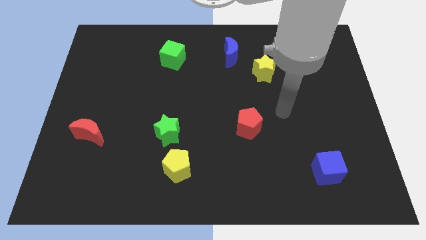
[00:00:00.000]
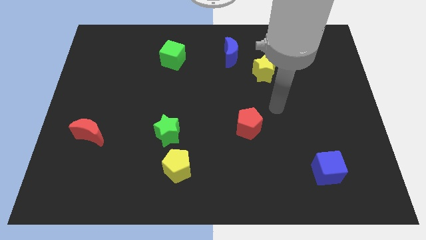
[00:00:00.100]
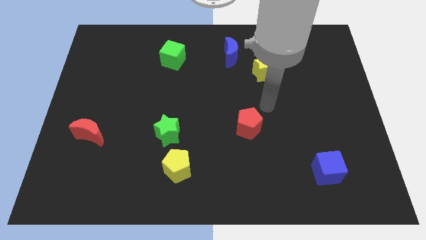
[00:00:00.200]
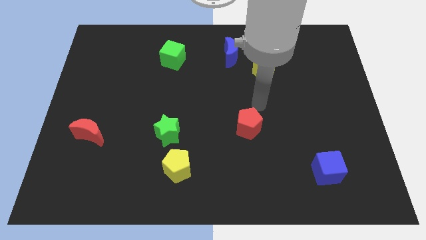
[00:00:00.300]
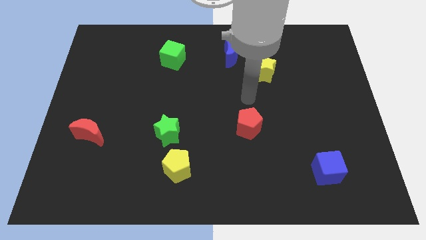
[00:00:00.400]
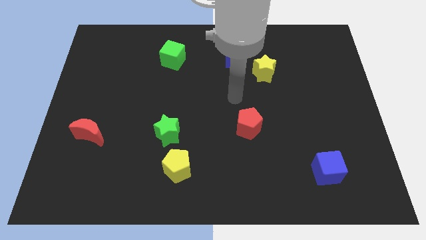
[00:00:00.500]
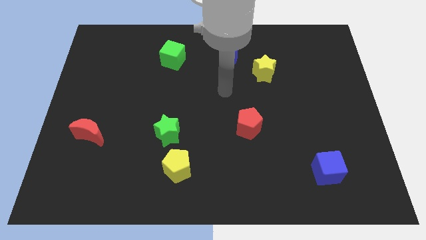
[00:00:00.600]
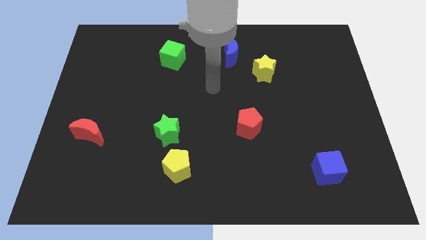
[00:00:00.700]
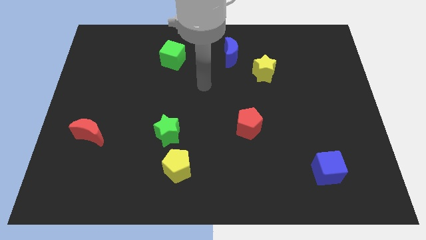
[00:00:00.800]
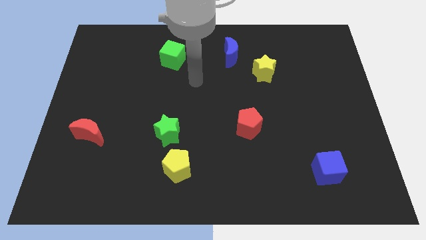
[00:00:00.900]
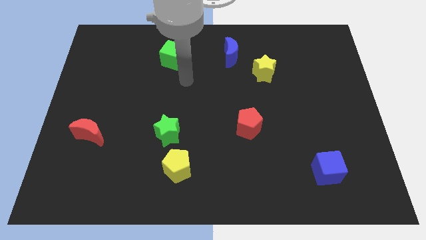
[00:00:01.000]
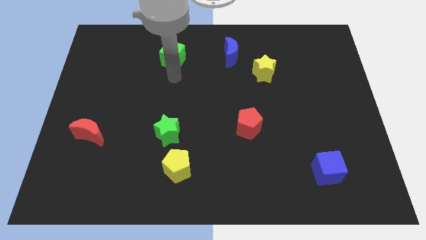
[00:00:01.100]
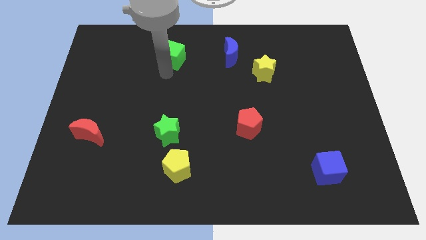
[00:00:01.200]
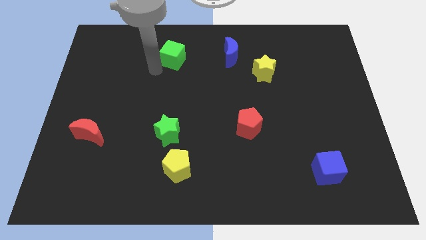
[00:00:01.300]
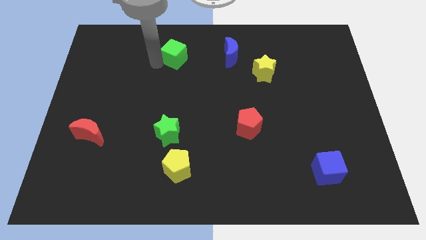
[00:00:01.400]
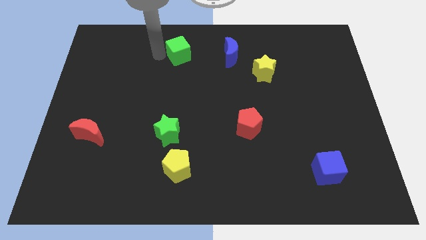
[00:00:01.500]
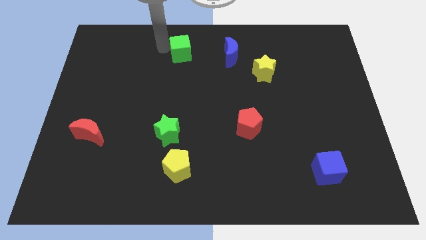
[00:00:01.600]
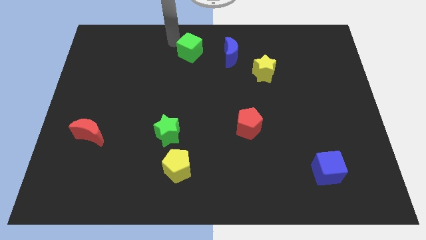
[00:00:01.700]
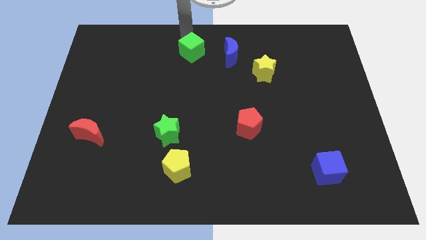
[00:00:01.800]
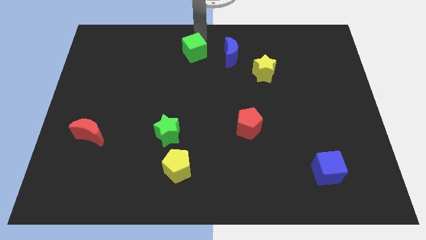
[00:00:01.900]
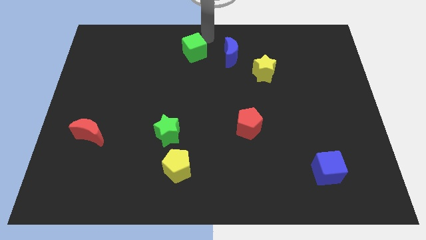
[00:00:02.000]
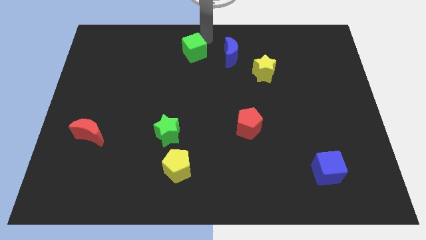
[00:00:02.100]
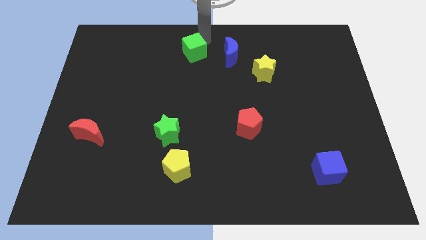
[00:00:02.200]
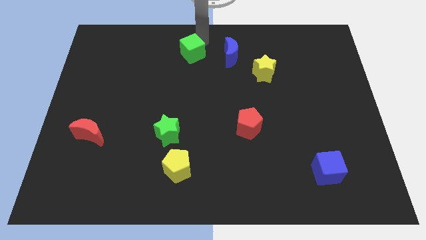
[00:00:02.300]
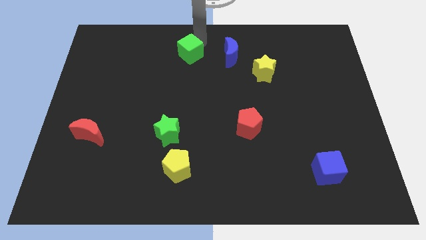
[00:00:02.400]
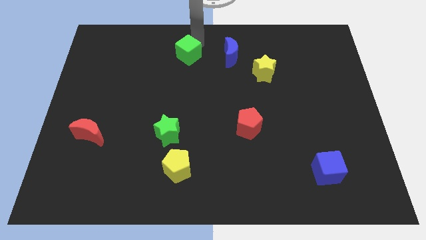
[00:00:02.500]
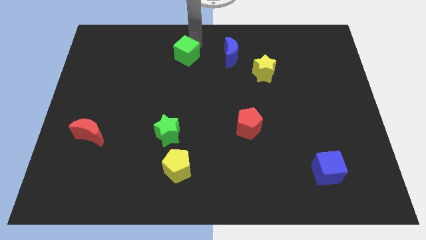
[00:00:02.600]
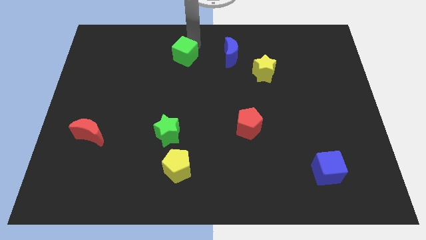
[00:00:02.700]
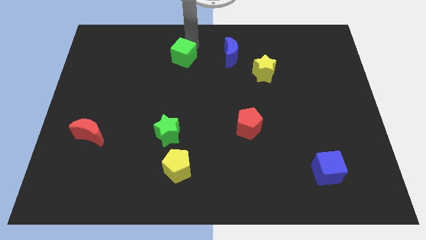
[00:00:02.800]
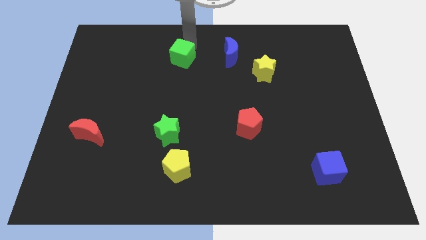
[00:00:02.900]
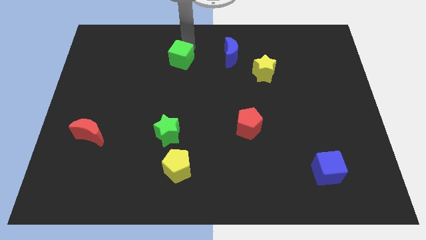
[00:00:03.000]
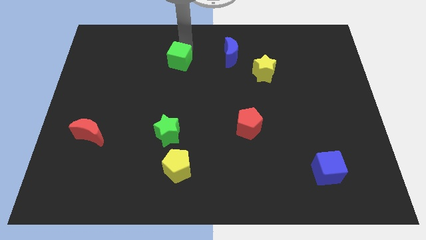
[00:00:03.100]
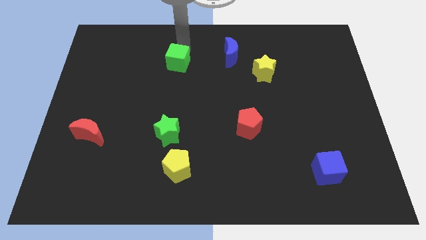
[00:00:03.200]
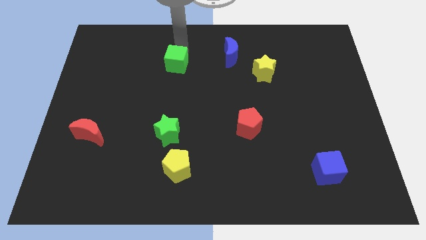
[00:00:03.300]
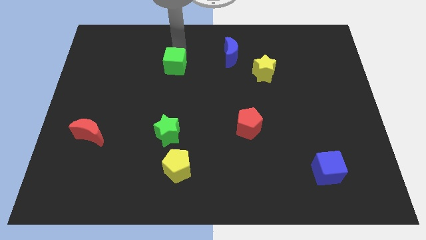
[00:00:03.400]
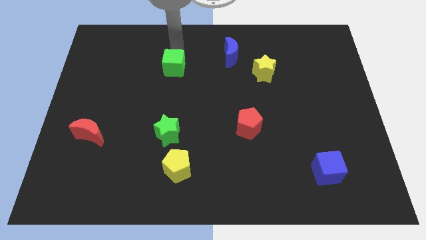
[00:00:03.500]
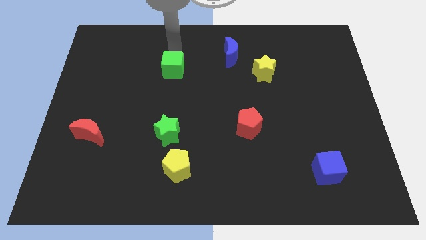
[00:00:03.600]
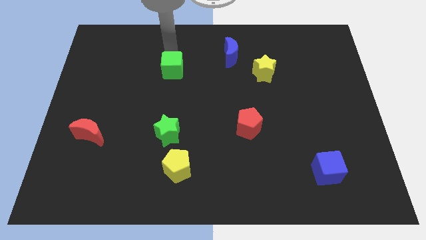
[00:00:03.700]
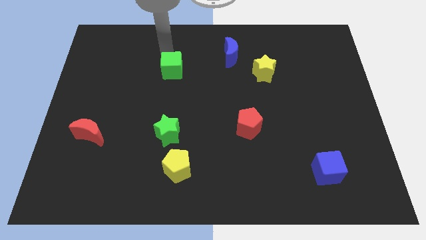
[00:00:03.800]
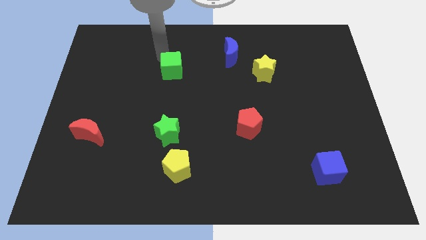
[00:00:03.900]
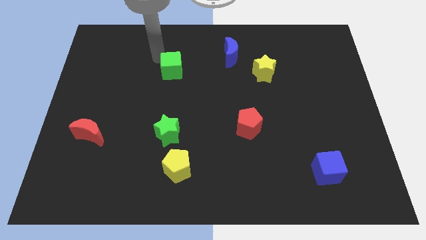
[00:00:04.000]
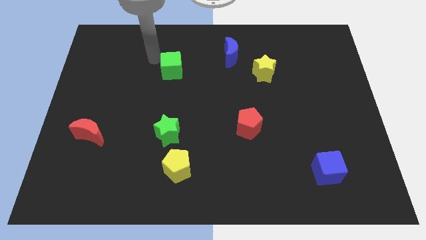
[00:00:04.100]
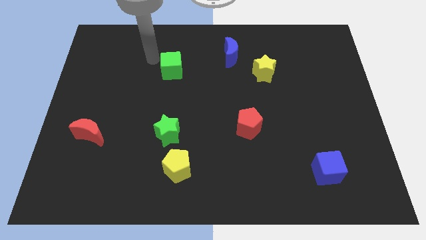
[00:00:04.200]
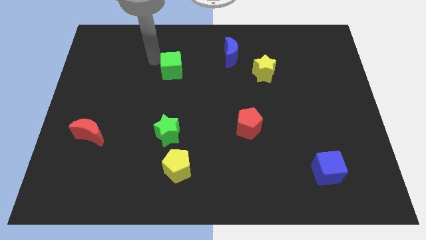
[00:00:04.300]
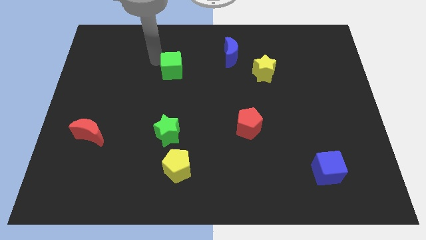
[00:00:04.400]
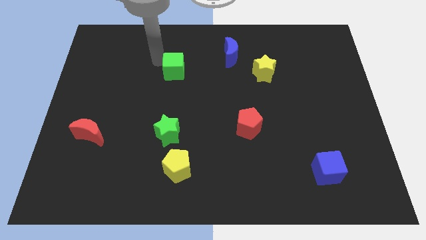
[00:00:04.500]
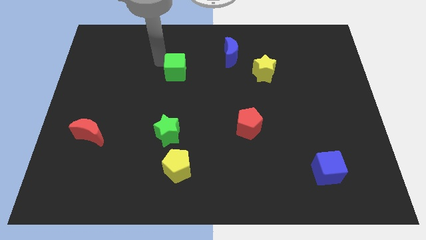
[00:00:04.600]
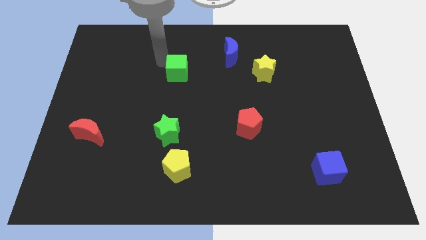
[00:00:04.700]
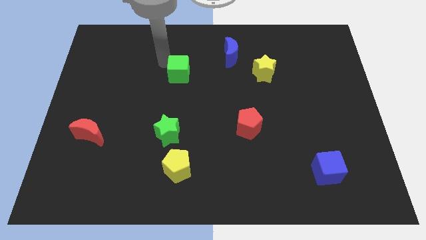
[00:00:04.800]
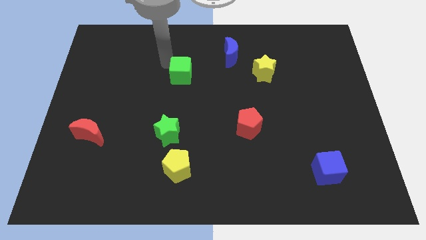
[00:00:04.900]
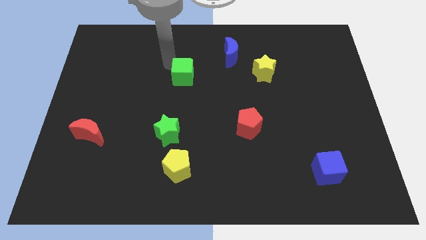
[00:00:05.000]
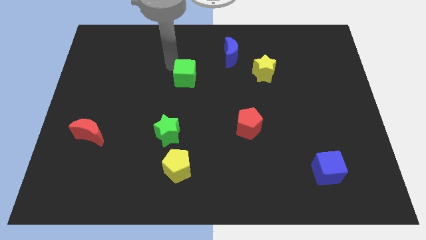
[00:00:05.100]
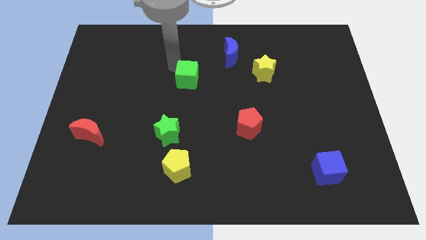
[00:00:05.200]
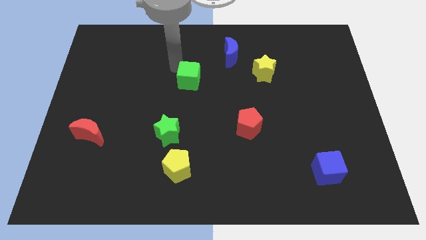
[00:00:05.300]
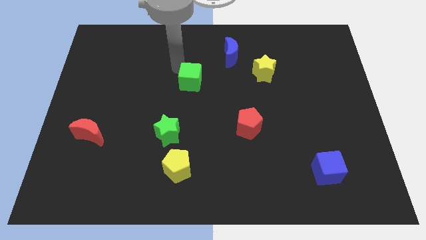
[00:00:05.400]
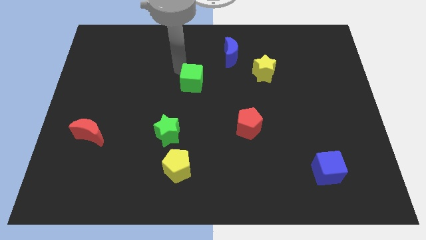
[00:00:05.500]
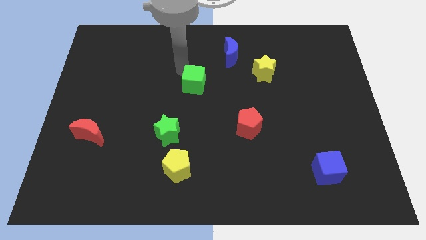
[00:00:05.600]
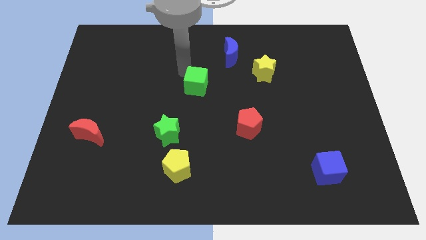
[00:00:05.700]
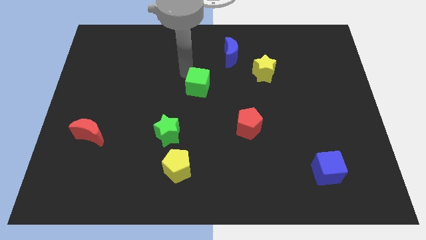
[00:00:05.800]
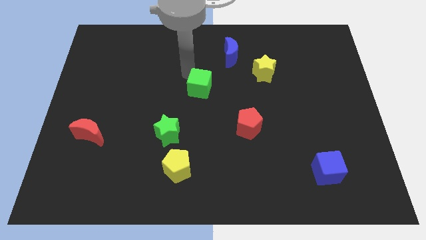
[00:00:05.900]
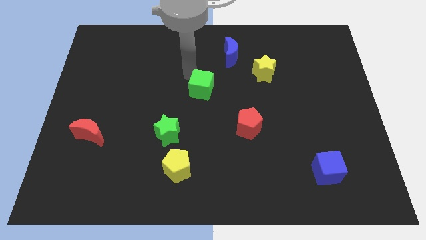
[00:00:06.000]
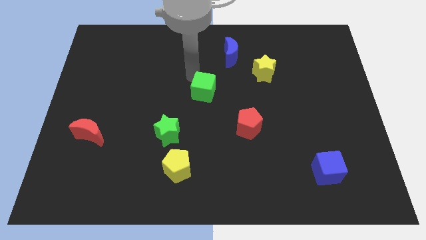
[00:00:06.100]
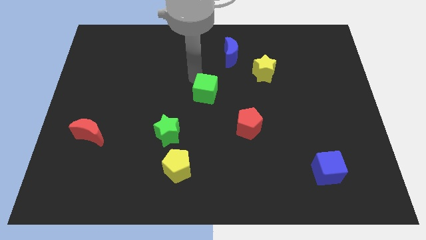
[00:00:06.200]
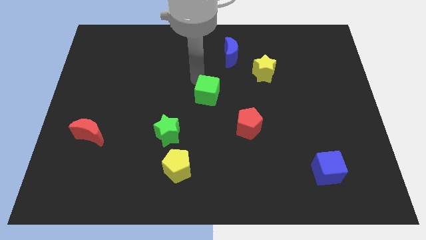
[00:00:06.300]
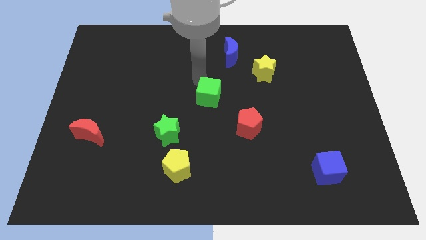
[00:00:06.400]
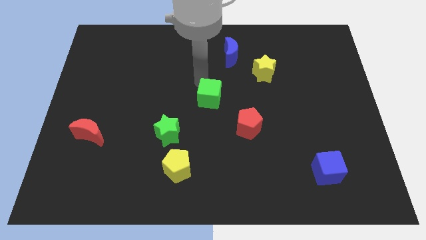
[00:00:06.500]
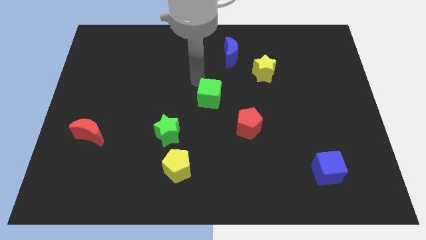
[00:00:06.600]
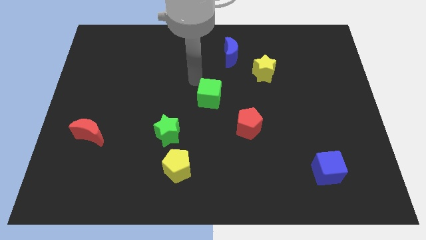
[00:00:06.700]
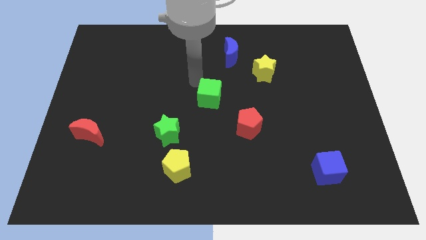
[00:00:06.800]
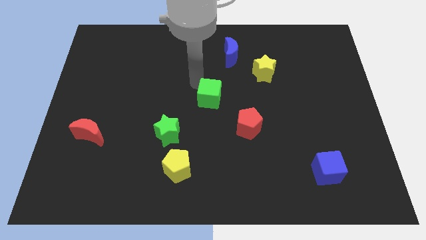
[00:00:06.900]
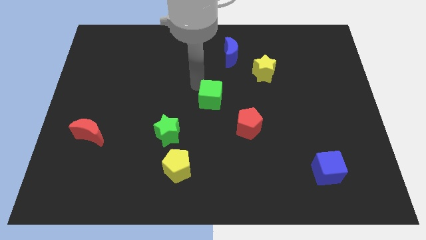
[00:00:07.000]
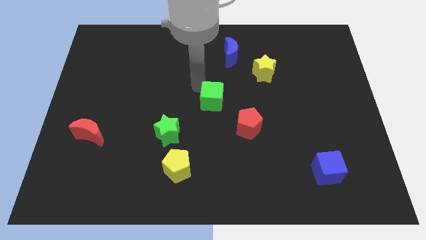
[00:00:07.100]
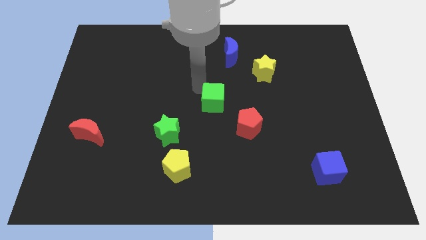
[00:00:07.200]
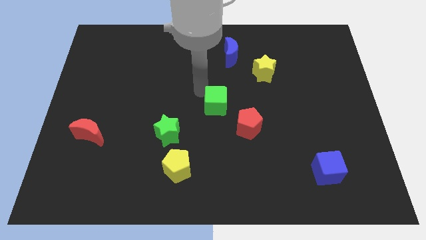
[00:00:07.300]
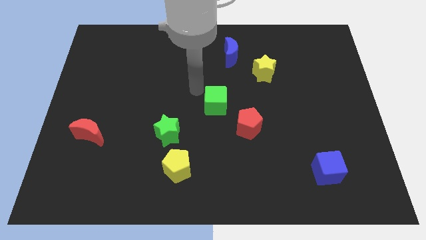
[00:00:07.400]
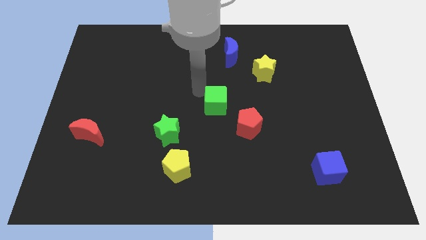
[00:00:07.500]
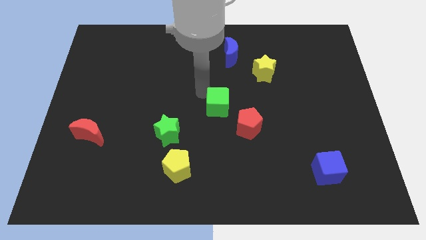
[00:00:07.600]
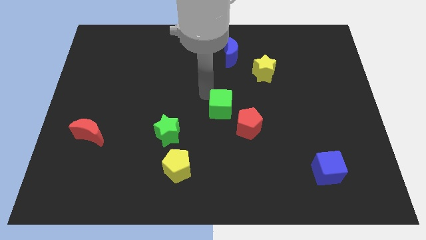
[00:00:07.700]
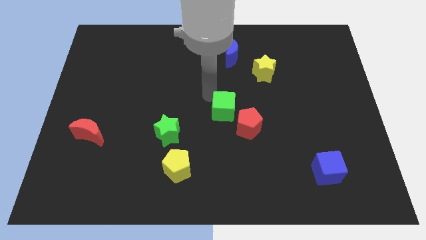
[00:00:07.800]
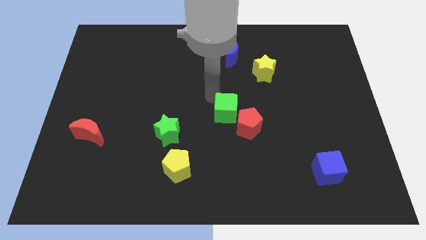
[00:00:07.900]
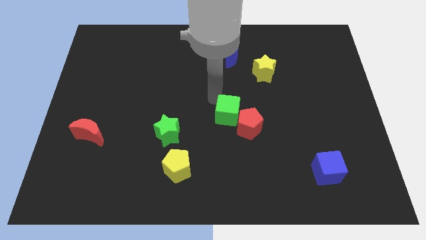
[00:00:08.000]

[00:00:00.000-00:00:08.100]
put the green cube next to the red pentagon
